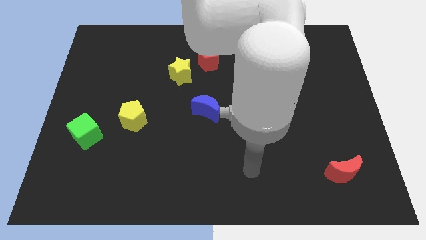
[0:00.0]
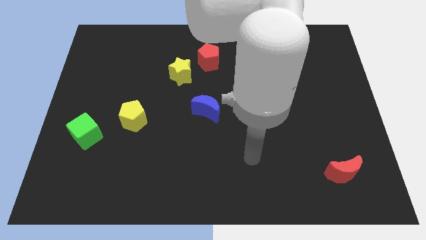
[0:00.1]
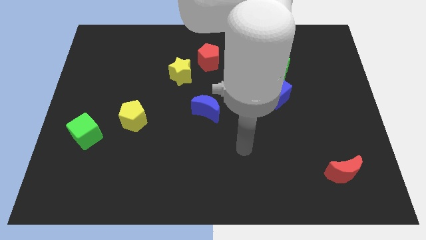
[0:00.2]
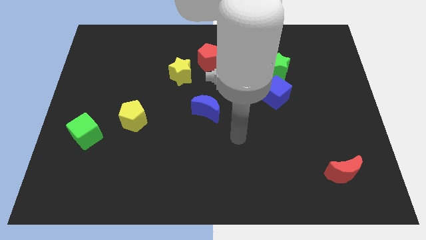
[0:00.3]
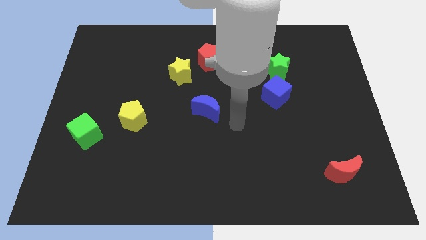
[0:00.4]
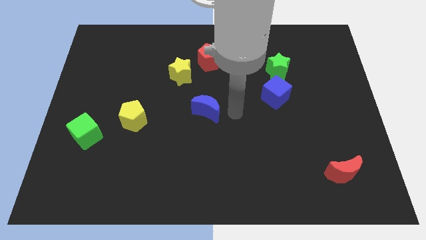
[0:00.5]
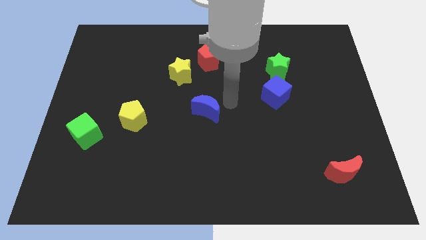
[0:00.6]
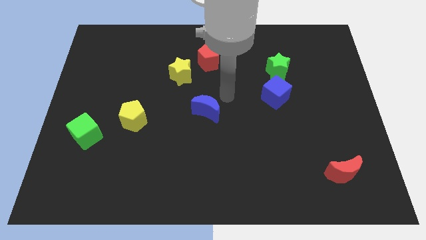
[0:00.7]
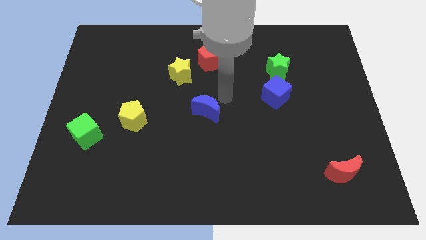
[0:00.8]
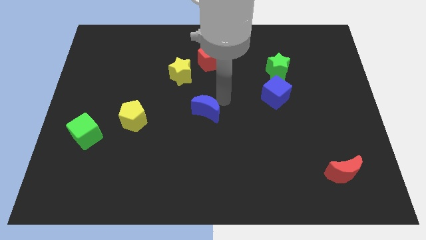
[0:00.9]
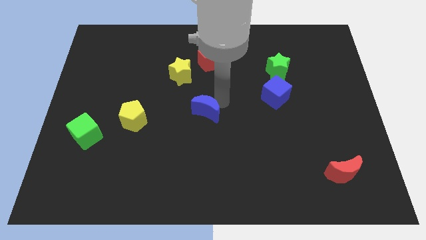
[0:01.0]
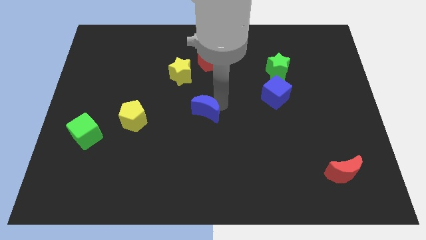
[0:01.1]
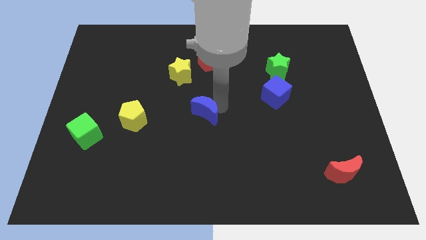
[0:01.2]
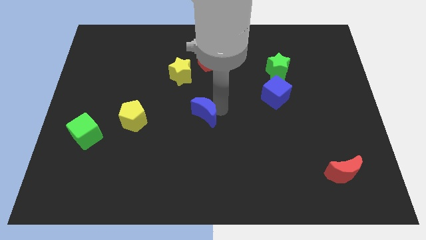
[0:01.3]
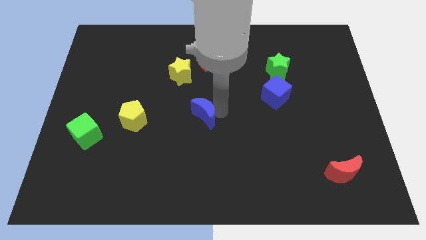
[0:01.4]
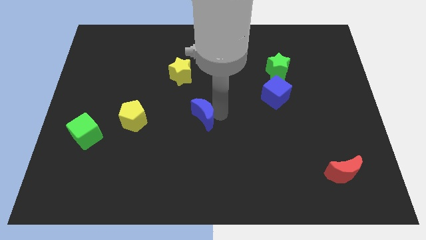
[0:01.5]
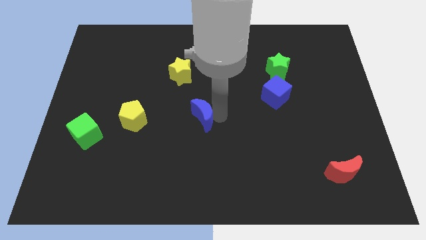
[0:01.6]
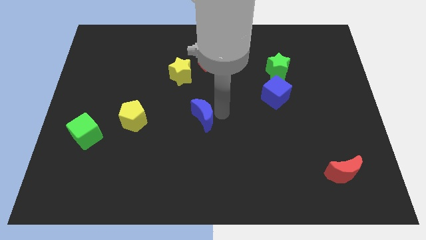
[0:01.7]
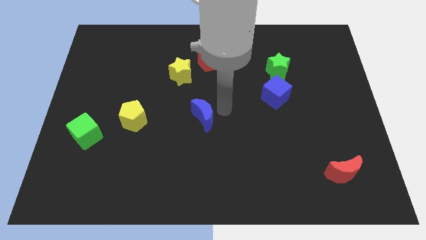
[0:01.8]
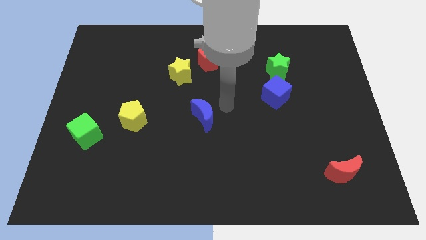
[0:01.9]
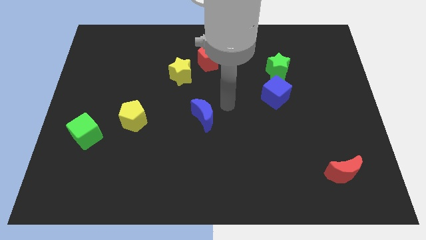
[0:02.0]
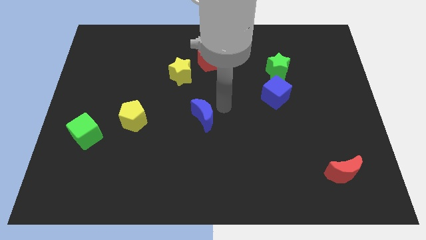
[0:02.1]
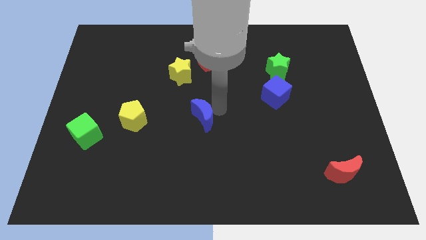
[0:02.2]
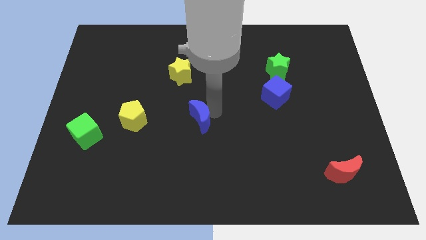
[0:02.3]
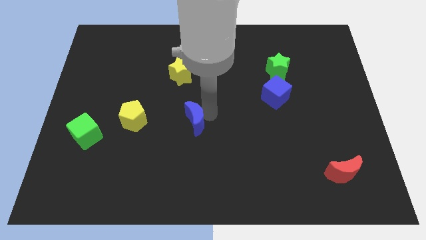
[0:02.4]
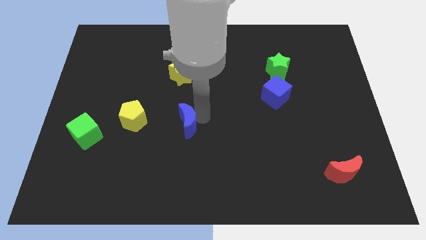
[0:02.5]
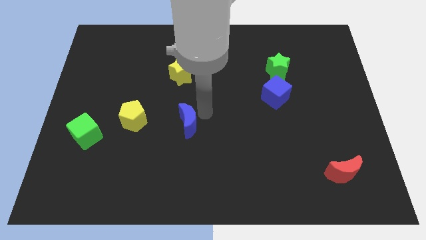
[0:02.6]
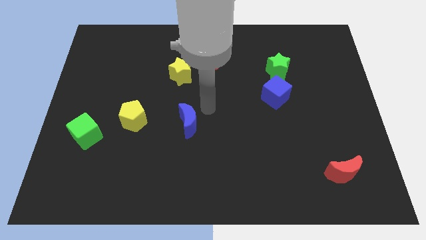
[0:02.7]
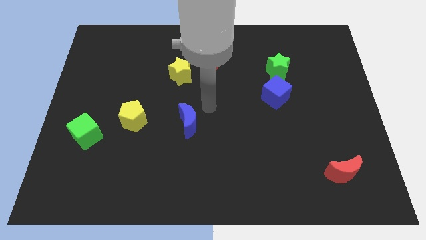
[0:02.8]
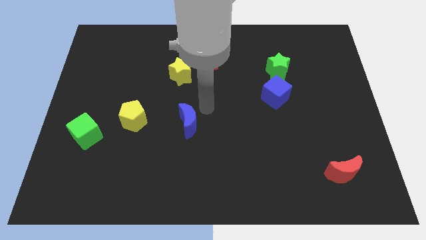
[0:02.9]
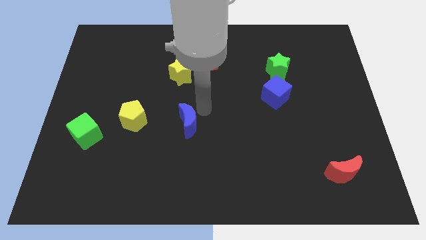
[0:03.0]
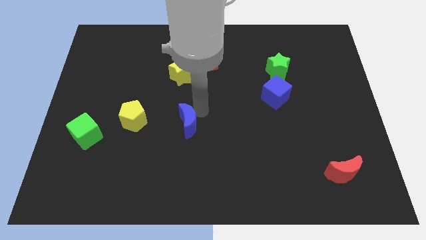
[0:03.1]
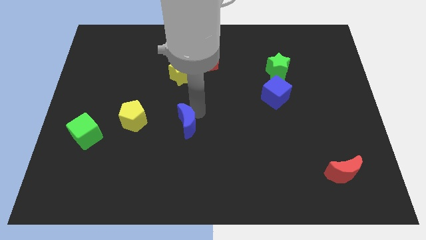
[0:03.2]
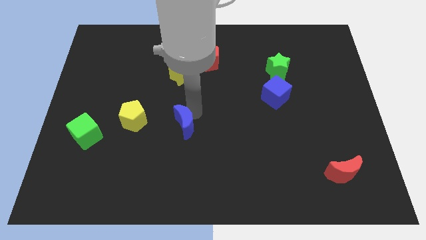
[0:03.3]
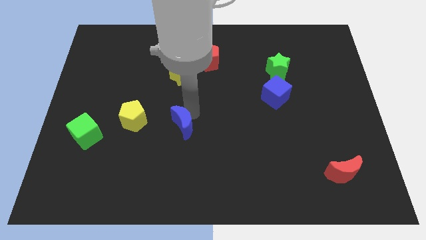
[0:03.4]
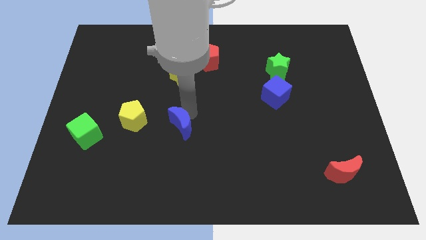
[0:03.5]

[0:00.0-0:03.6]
slide the blue moon down and to the left a little bit

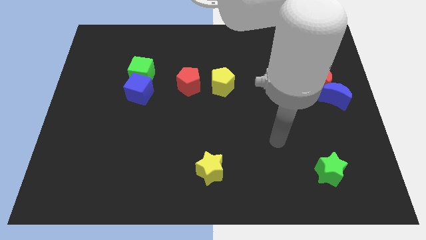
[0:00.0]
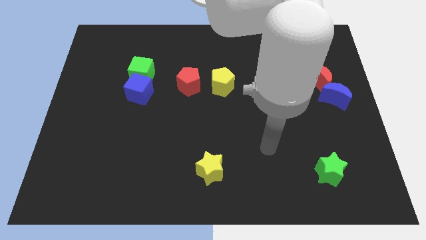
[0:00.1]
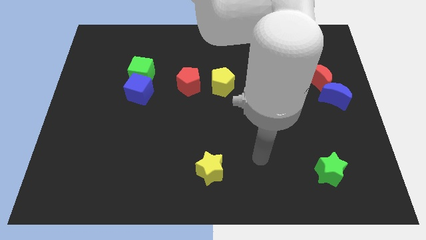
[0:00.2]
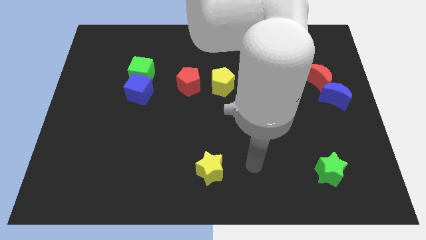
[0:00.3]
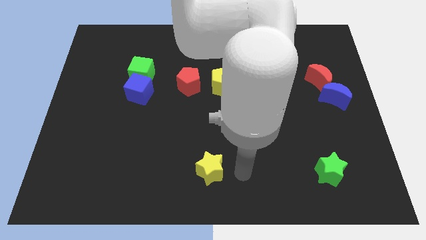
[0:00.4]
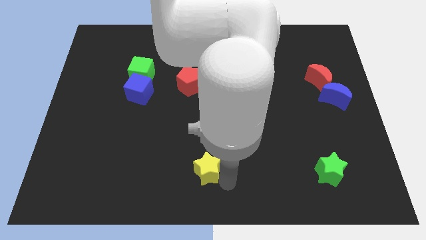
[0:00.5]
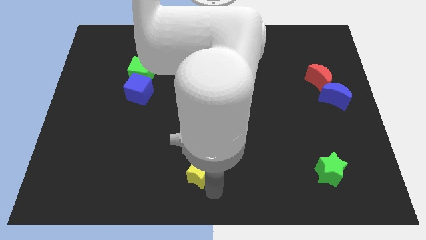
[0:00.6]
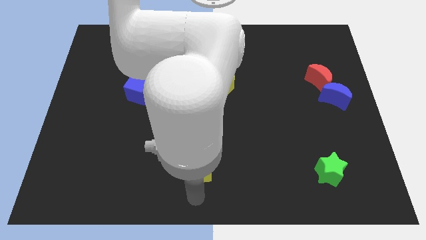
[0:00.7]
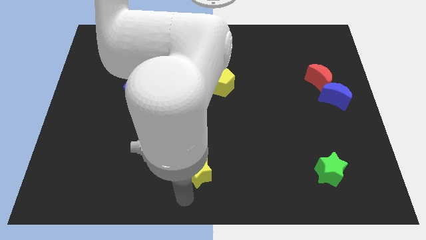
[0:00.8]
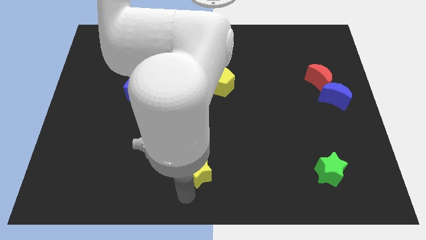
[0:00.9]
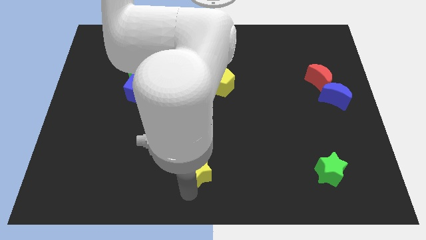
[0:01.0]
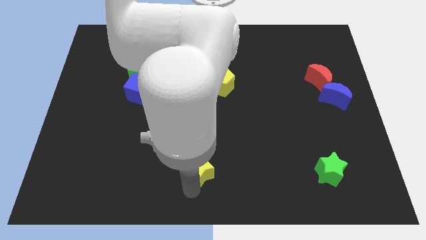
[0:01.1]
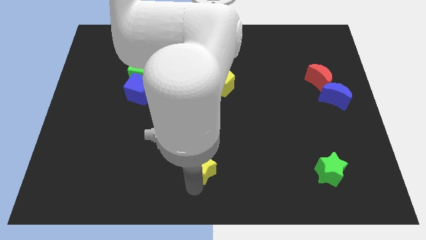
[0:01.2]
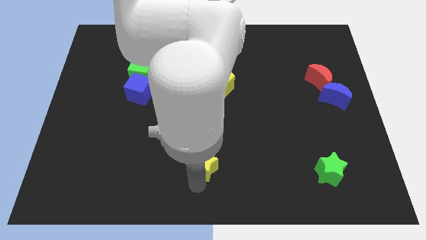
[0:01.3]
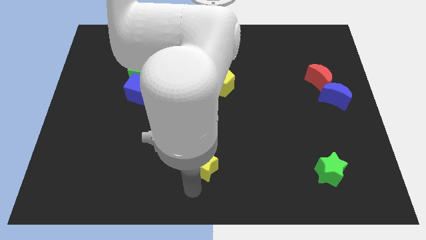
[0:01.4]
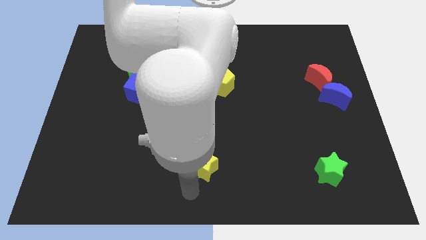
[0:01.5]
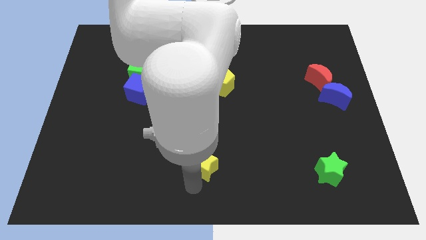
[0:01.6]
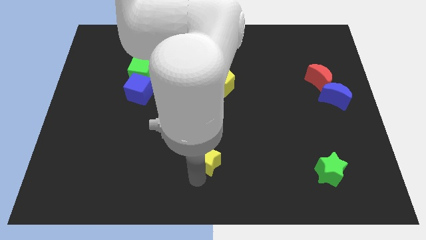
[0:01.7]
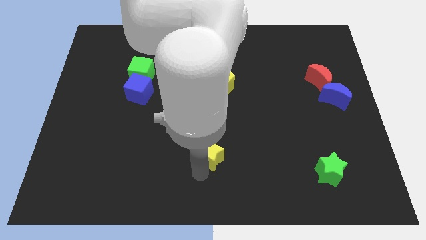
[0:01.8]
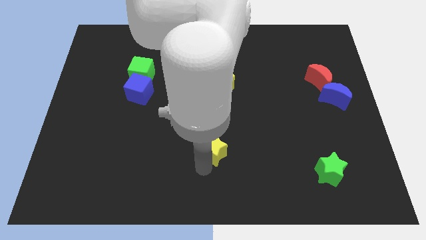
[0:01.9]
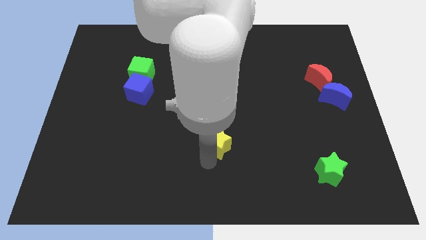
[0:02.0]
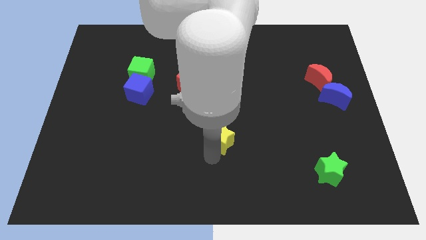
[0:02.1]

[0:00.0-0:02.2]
move the yellow star a little upwards

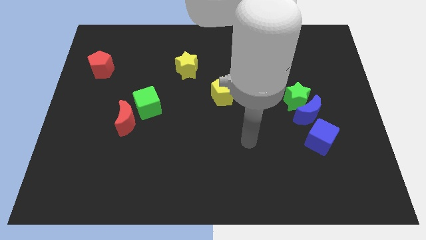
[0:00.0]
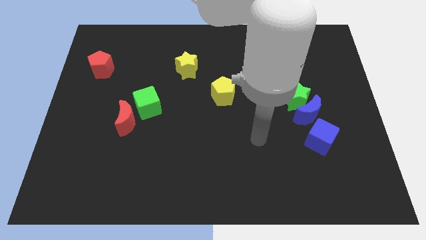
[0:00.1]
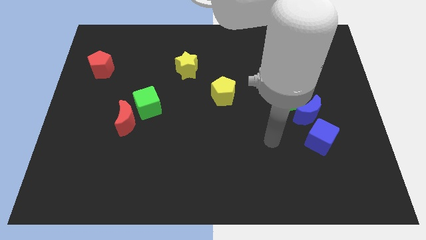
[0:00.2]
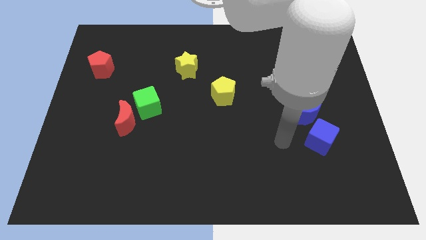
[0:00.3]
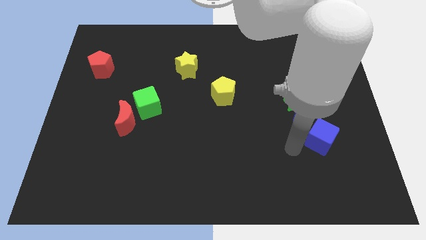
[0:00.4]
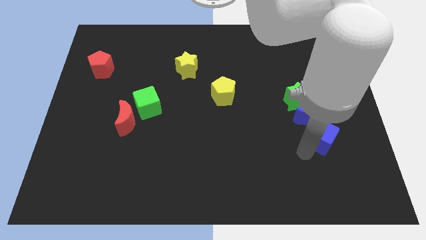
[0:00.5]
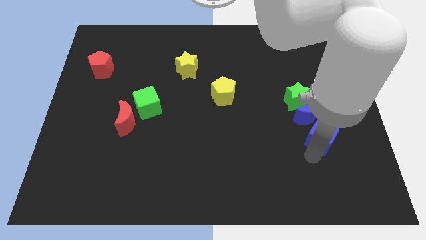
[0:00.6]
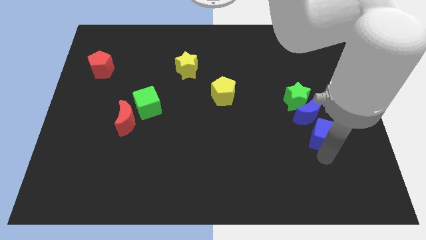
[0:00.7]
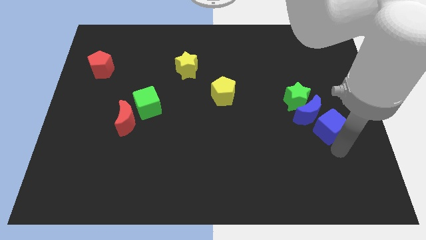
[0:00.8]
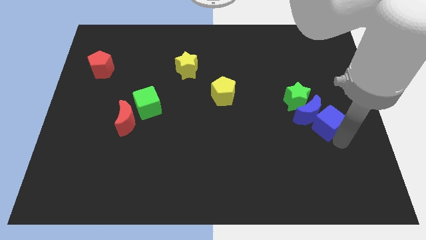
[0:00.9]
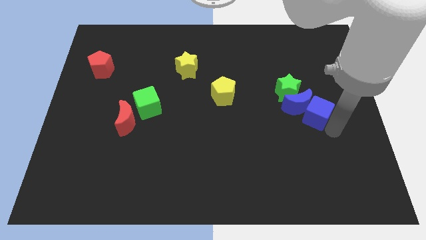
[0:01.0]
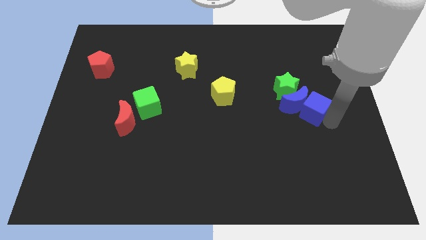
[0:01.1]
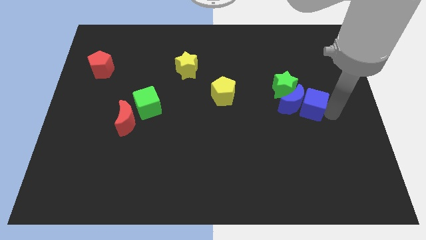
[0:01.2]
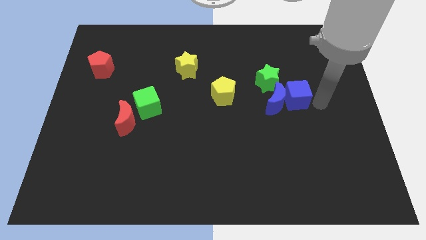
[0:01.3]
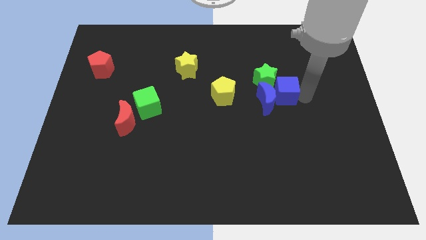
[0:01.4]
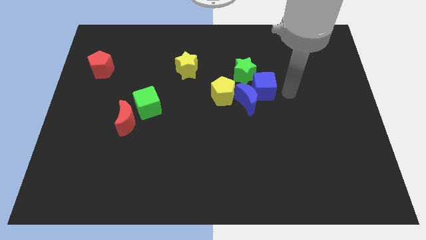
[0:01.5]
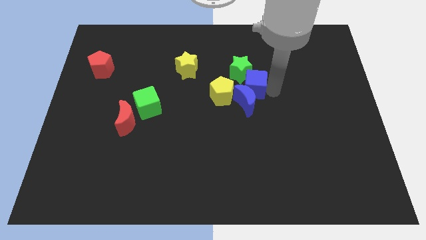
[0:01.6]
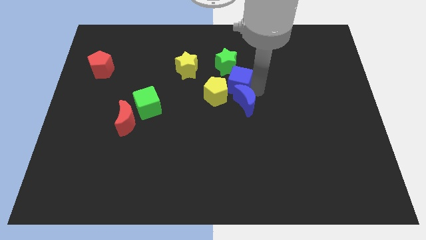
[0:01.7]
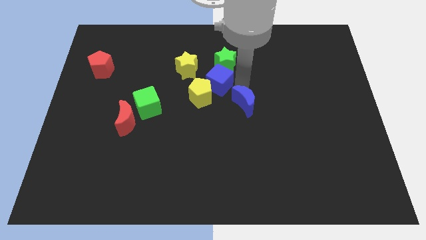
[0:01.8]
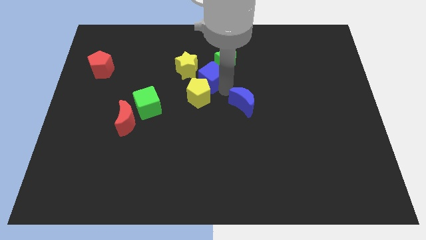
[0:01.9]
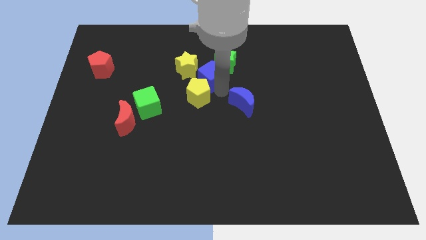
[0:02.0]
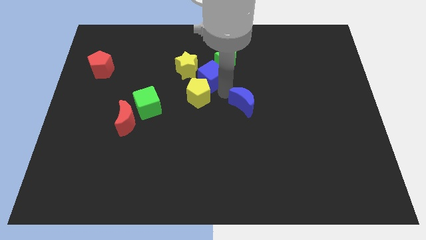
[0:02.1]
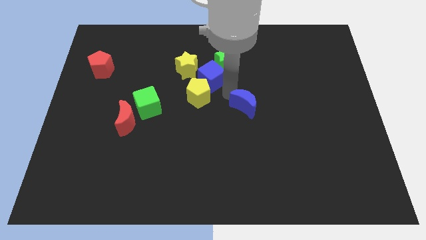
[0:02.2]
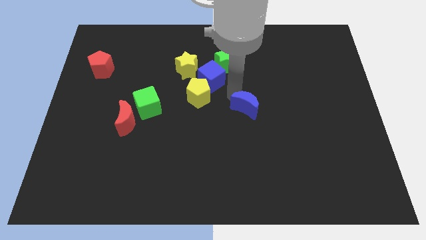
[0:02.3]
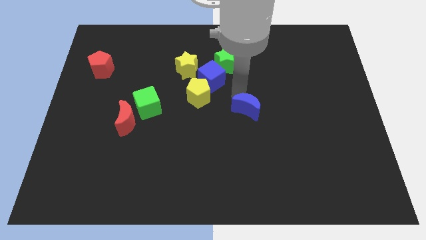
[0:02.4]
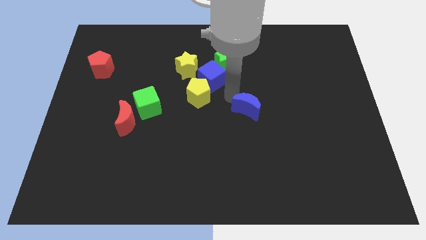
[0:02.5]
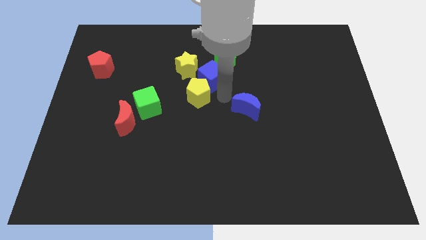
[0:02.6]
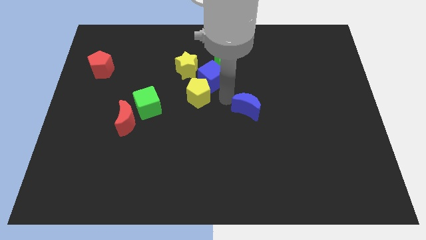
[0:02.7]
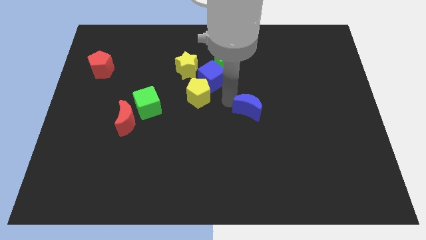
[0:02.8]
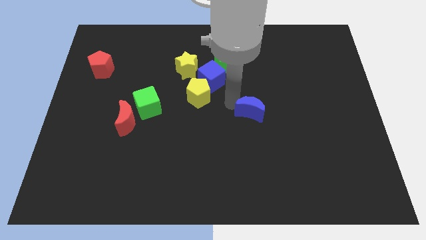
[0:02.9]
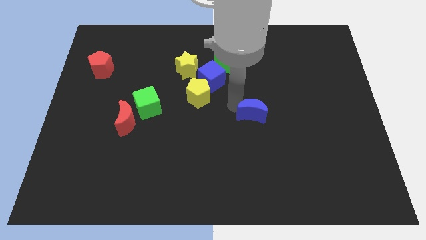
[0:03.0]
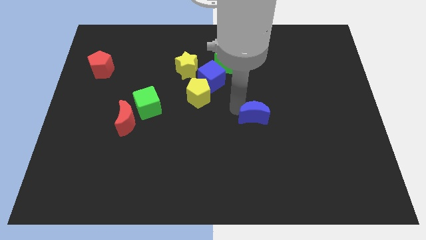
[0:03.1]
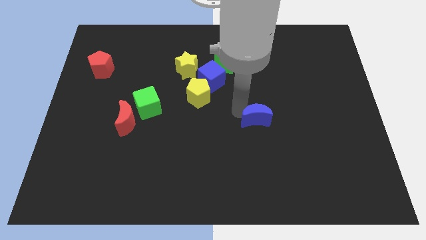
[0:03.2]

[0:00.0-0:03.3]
slide the blue moon downwards and to the left slightly
